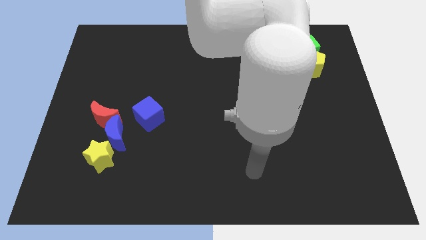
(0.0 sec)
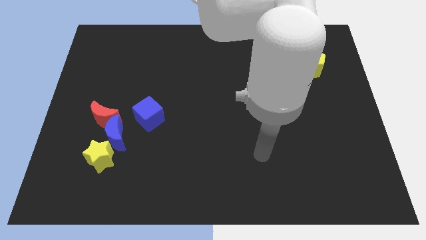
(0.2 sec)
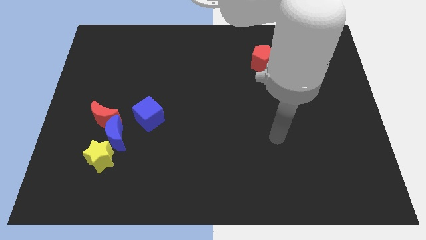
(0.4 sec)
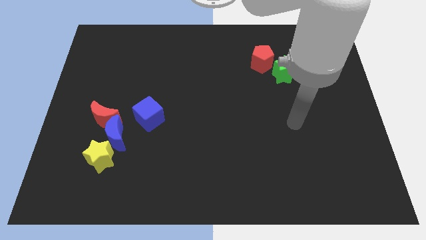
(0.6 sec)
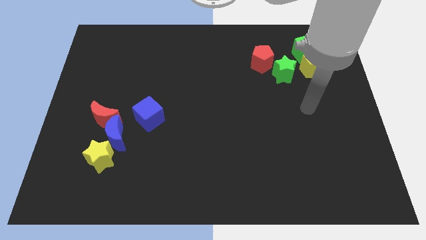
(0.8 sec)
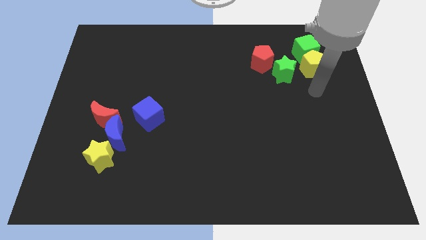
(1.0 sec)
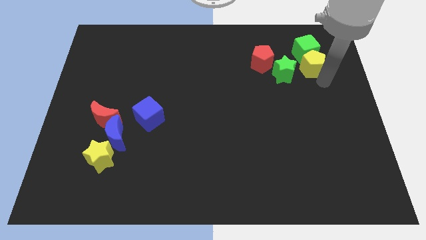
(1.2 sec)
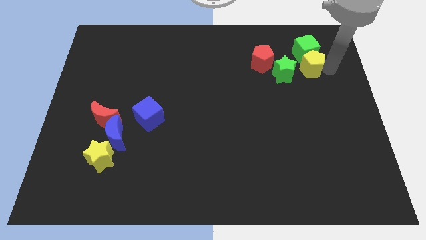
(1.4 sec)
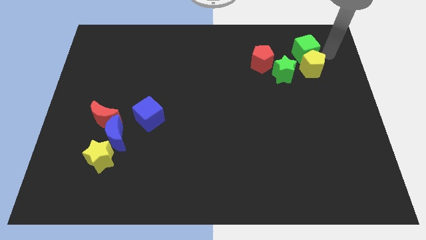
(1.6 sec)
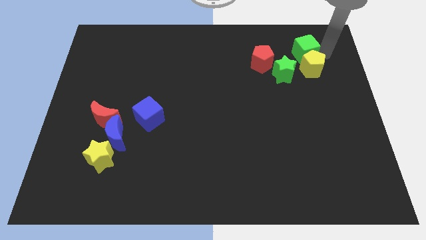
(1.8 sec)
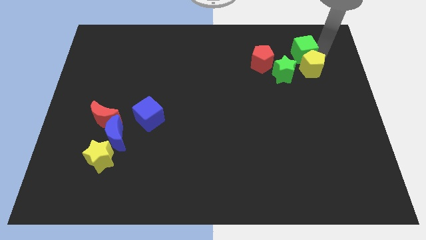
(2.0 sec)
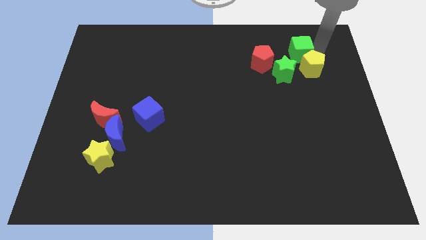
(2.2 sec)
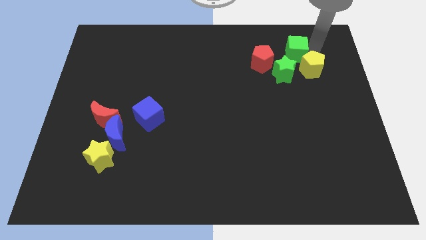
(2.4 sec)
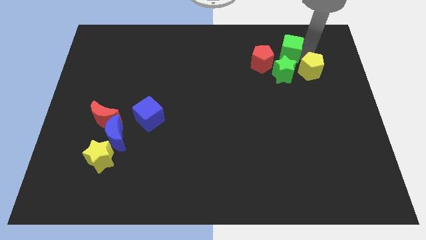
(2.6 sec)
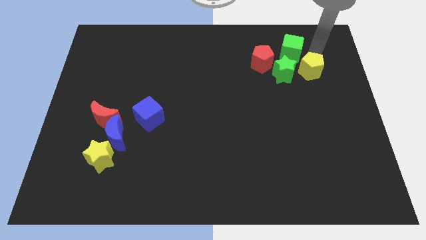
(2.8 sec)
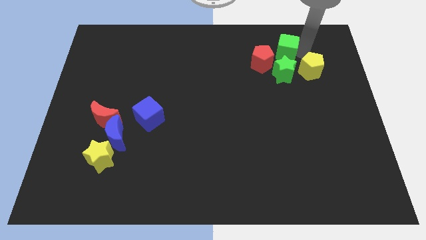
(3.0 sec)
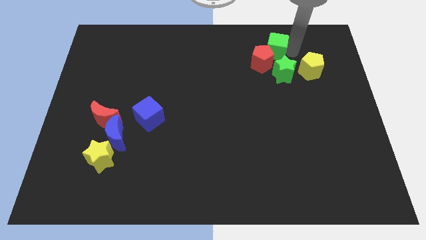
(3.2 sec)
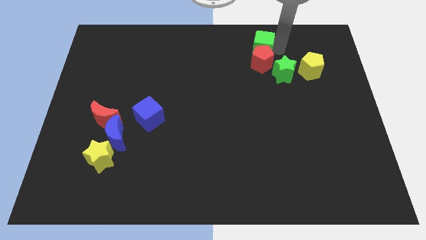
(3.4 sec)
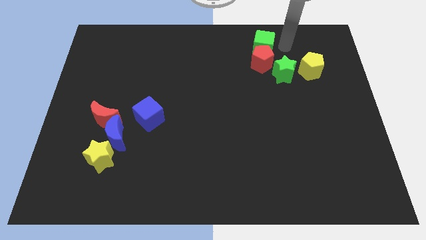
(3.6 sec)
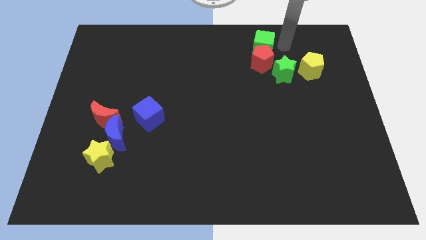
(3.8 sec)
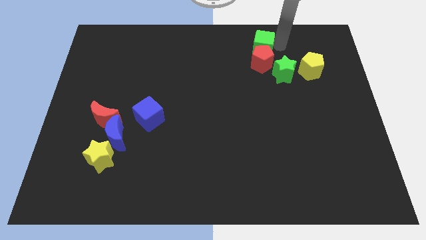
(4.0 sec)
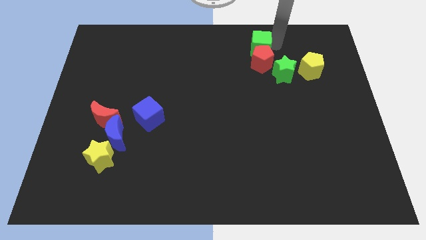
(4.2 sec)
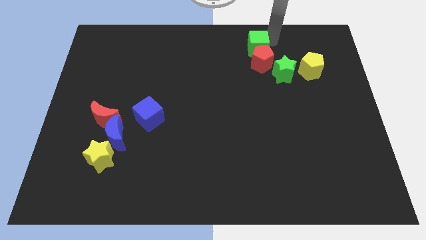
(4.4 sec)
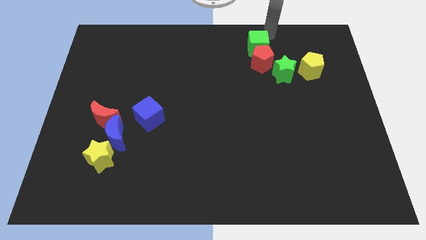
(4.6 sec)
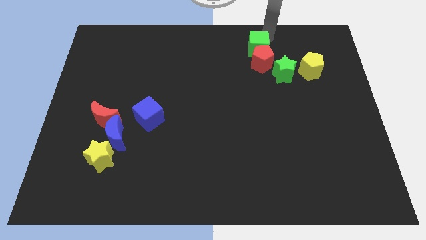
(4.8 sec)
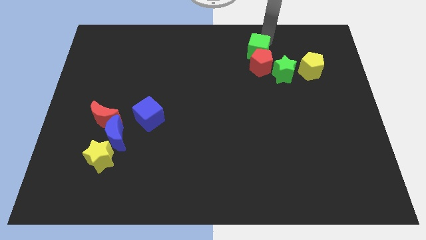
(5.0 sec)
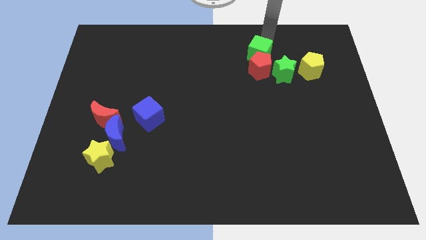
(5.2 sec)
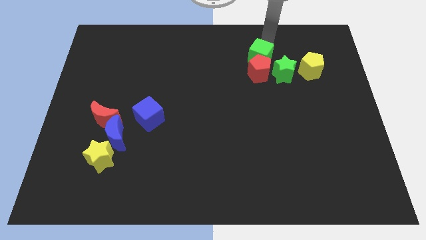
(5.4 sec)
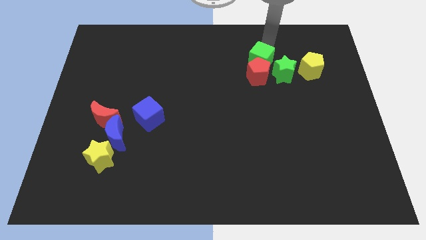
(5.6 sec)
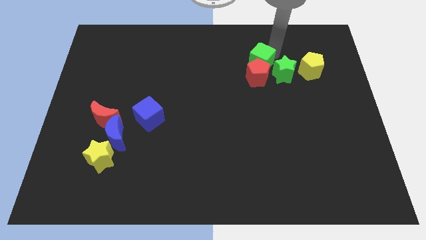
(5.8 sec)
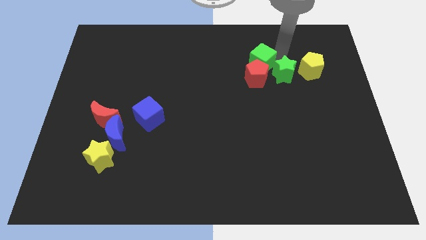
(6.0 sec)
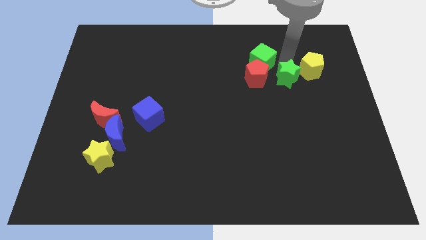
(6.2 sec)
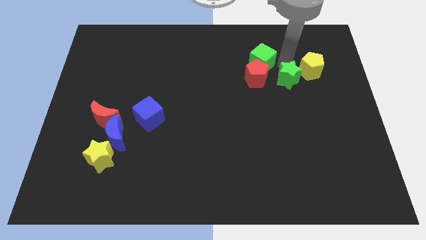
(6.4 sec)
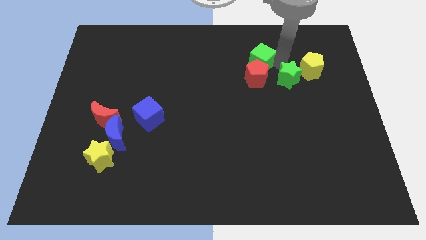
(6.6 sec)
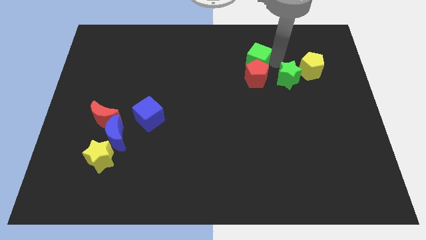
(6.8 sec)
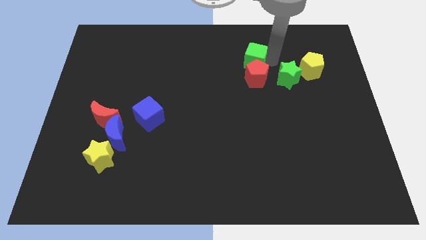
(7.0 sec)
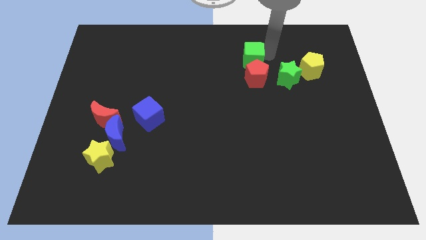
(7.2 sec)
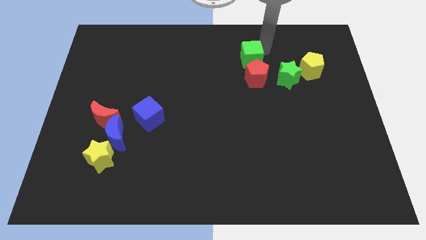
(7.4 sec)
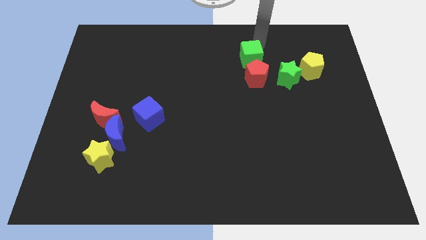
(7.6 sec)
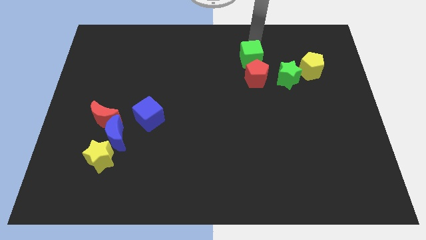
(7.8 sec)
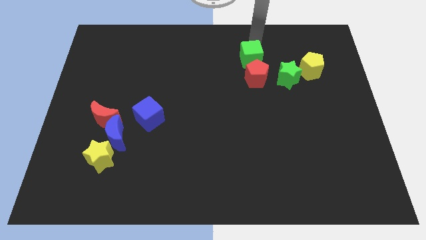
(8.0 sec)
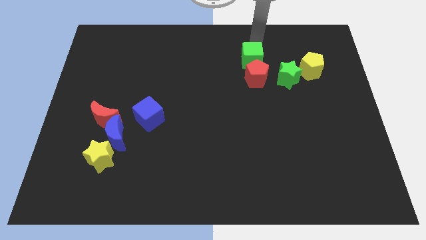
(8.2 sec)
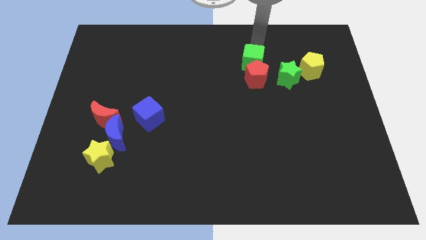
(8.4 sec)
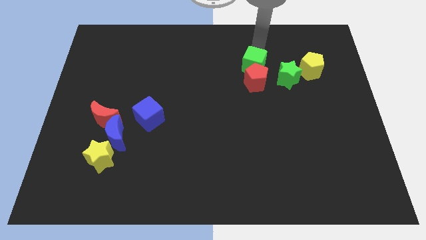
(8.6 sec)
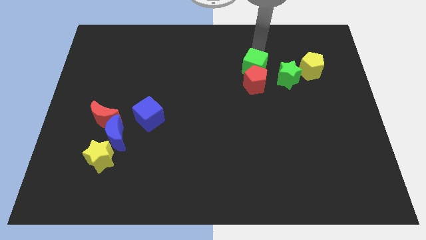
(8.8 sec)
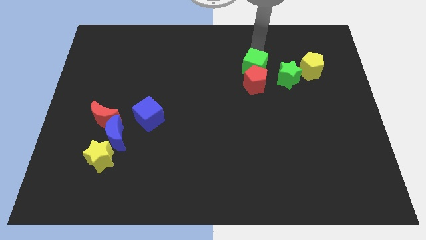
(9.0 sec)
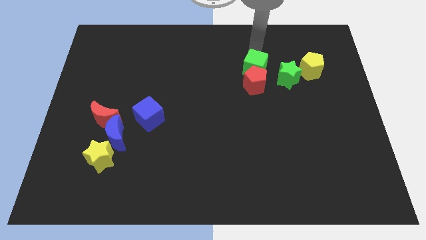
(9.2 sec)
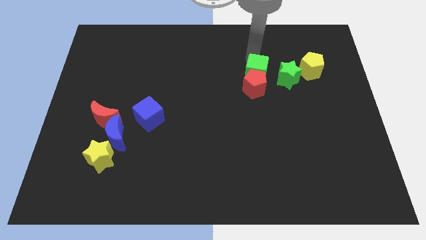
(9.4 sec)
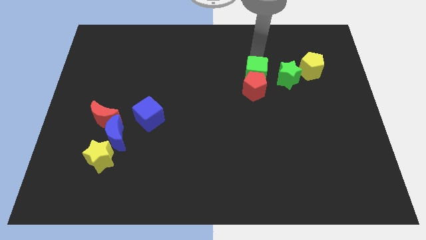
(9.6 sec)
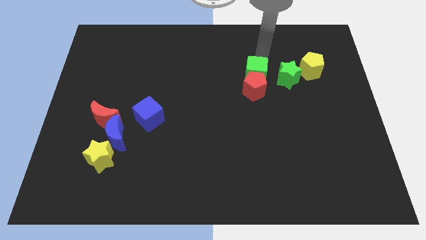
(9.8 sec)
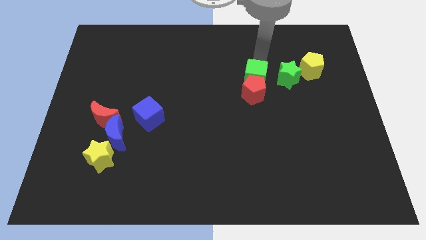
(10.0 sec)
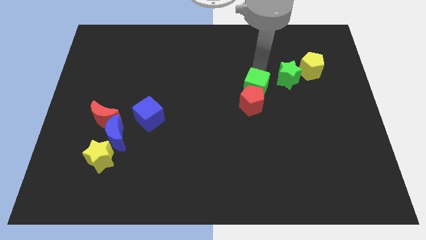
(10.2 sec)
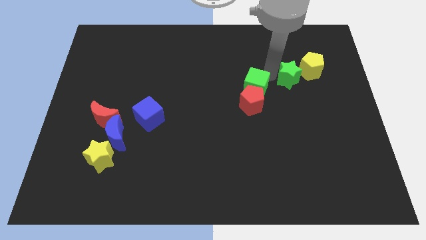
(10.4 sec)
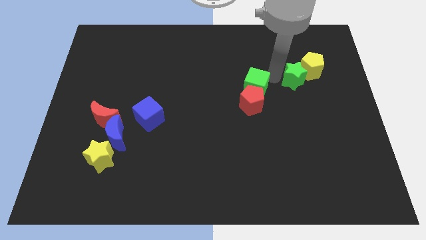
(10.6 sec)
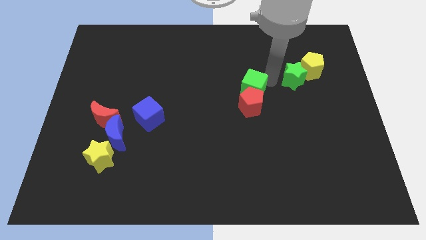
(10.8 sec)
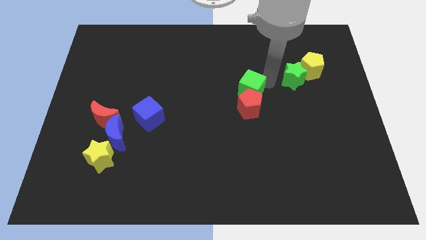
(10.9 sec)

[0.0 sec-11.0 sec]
slide the green cube down and then to the left

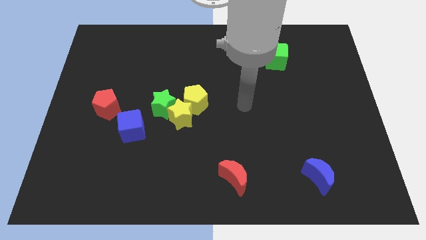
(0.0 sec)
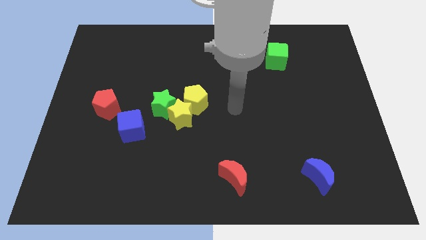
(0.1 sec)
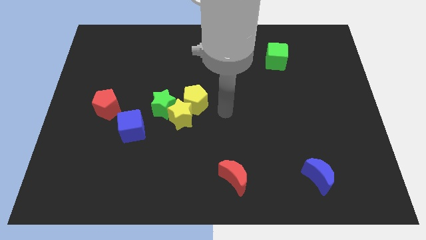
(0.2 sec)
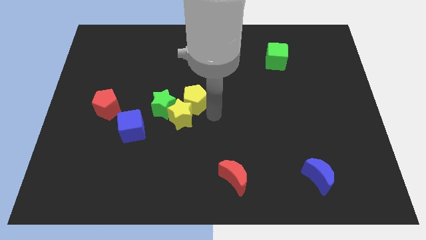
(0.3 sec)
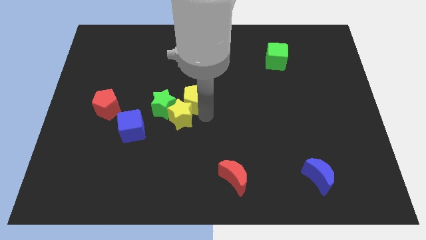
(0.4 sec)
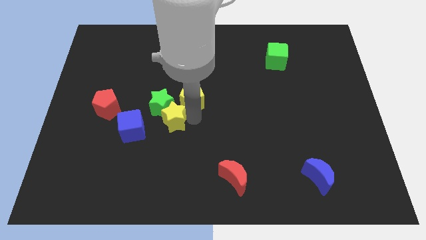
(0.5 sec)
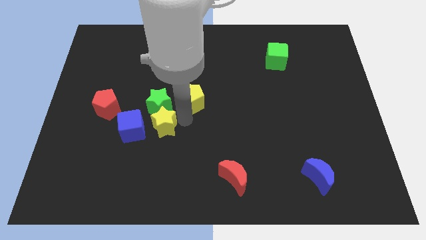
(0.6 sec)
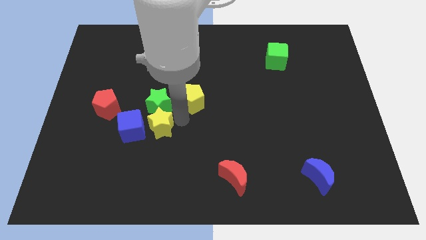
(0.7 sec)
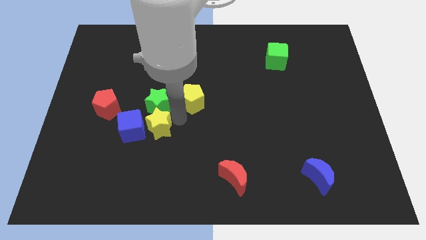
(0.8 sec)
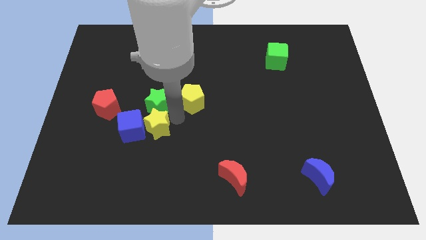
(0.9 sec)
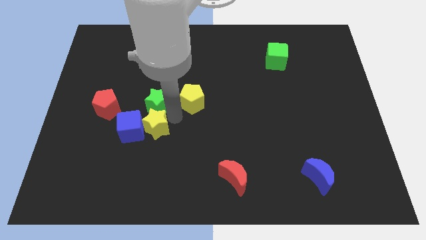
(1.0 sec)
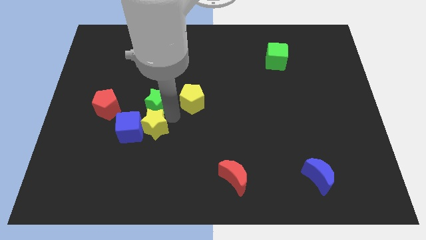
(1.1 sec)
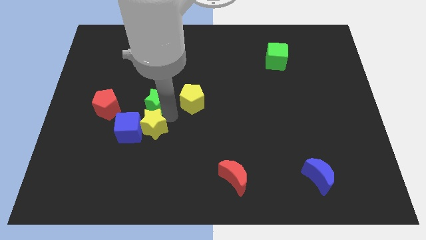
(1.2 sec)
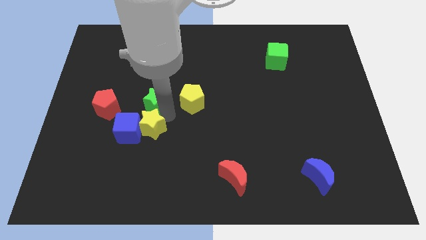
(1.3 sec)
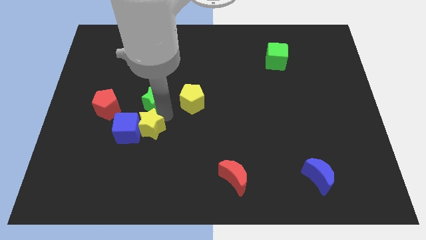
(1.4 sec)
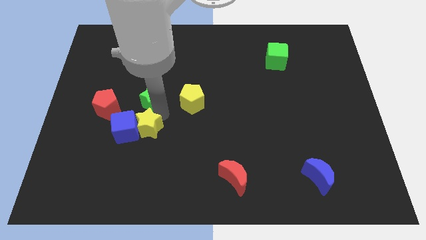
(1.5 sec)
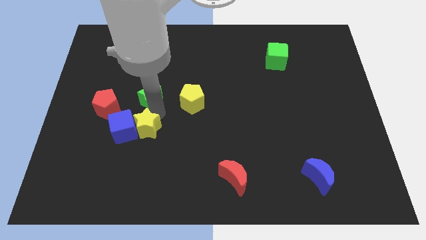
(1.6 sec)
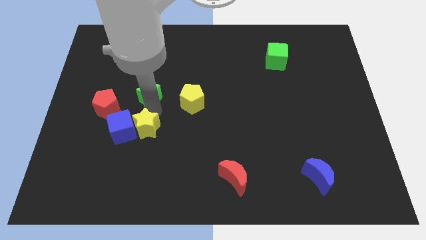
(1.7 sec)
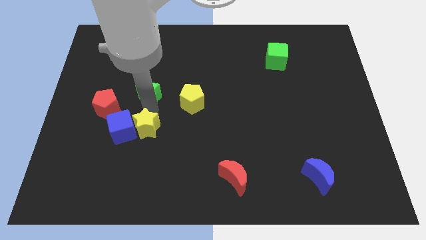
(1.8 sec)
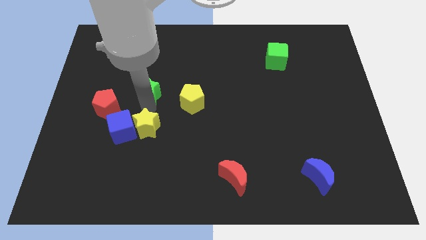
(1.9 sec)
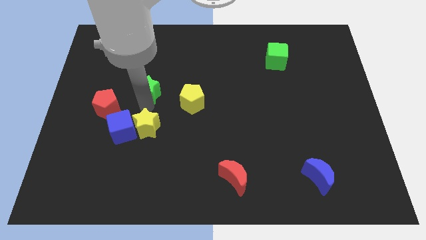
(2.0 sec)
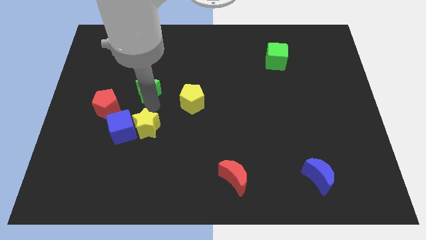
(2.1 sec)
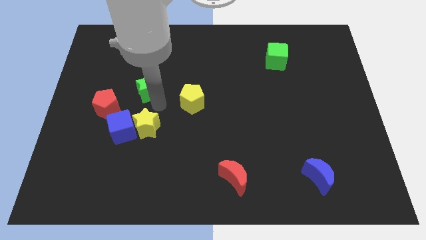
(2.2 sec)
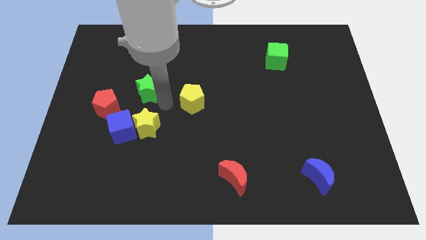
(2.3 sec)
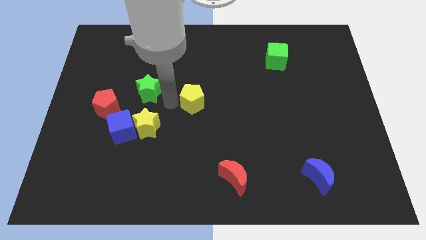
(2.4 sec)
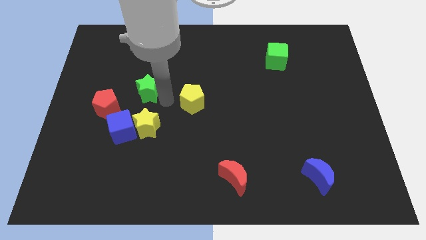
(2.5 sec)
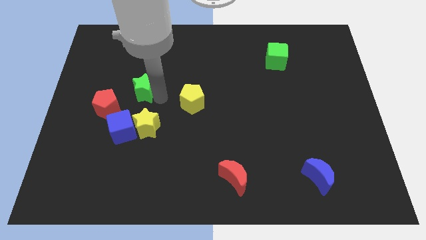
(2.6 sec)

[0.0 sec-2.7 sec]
slightly push the green star diagonally upwards and left
